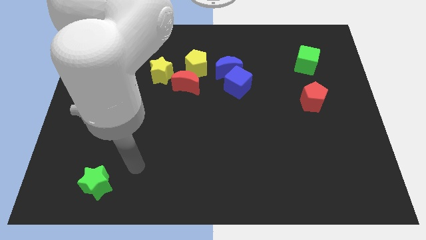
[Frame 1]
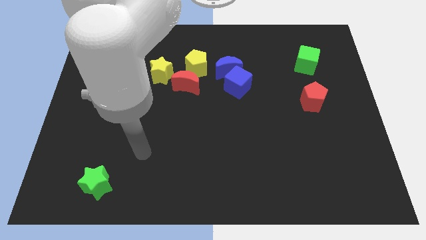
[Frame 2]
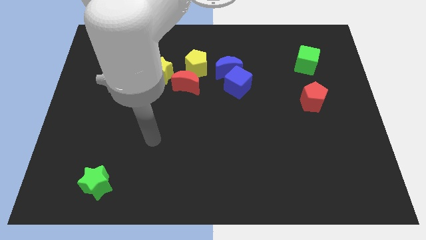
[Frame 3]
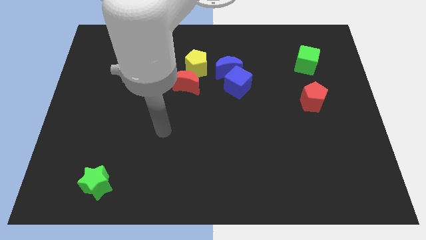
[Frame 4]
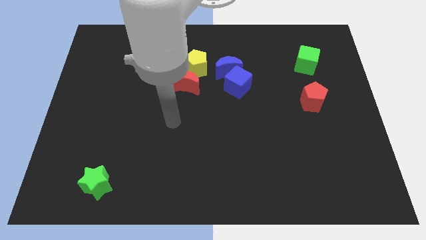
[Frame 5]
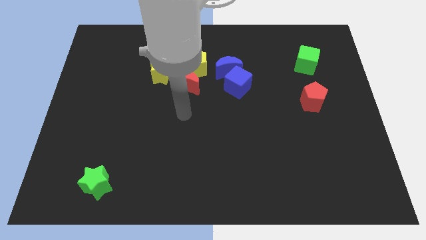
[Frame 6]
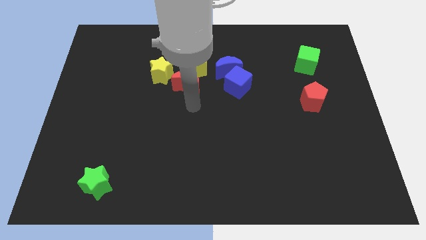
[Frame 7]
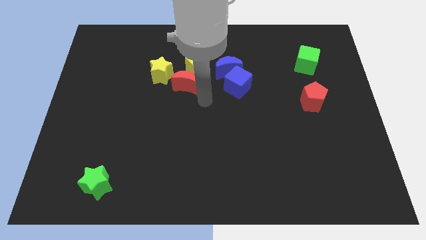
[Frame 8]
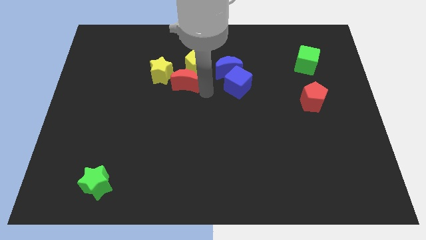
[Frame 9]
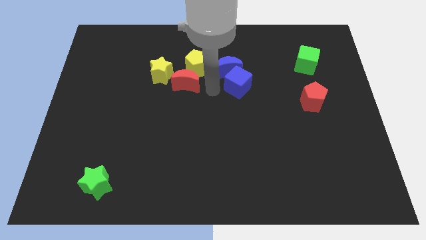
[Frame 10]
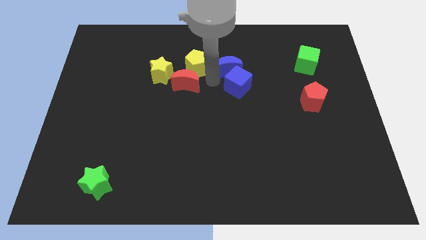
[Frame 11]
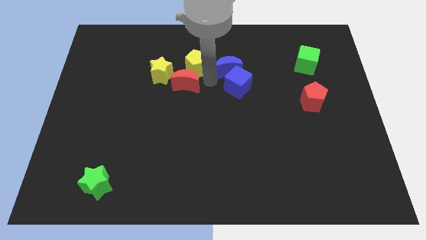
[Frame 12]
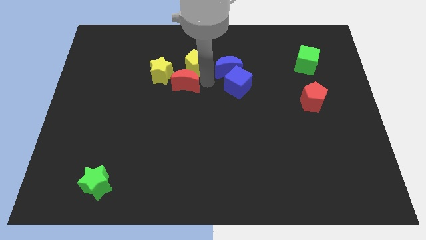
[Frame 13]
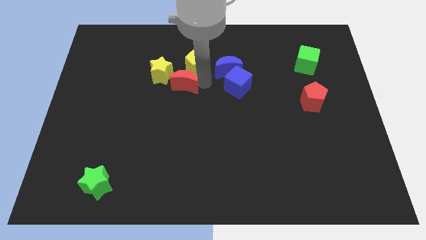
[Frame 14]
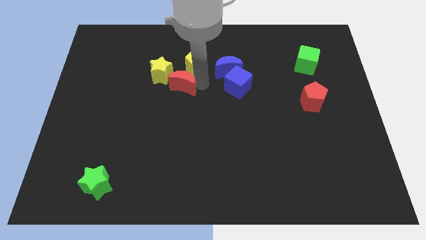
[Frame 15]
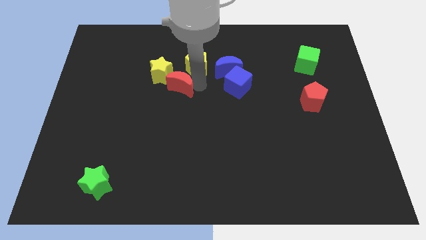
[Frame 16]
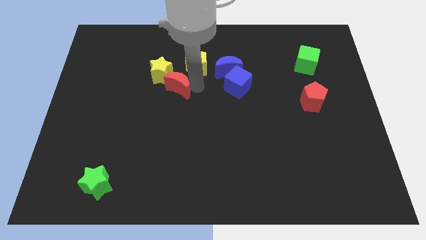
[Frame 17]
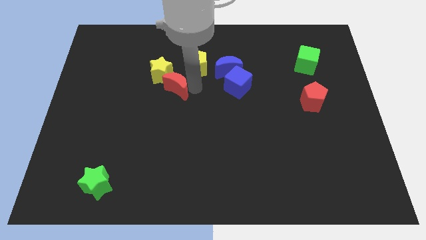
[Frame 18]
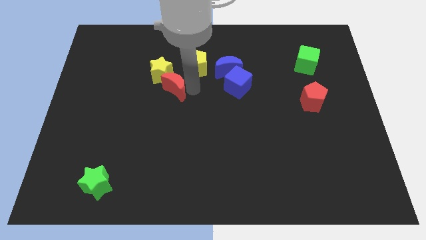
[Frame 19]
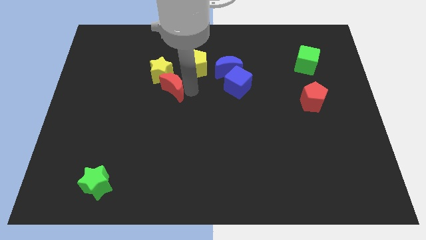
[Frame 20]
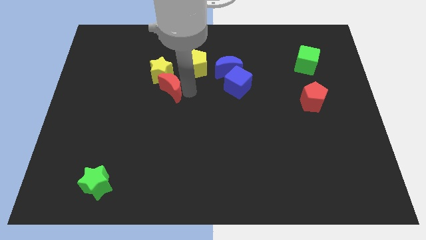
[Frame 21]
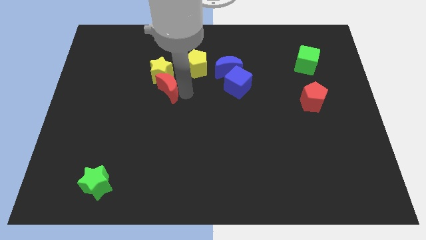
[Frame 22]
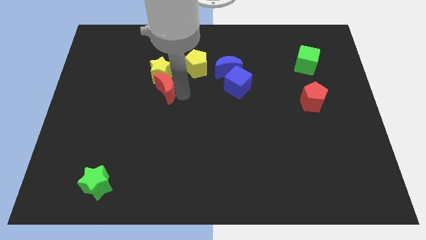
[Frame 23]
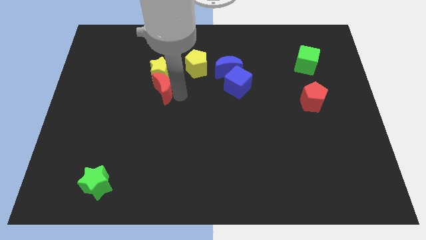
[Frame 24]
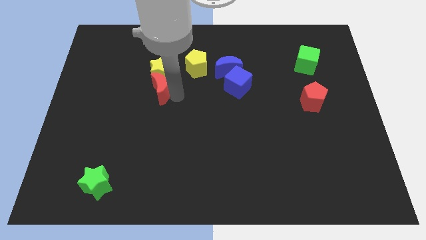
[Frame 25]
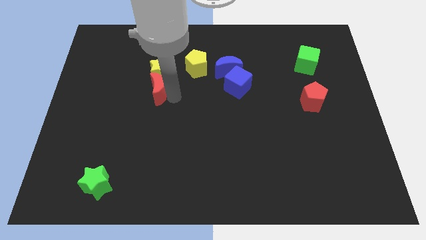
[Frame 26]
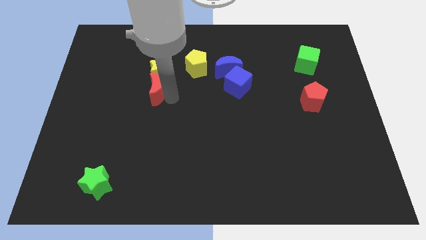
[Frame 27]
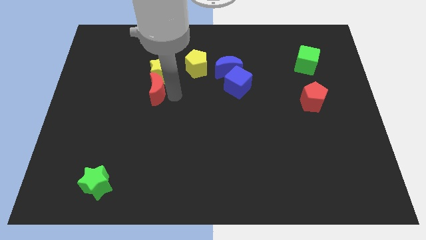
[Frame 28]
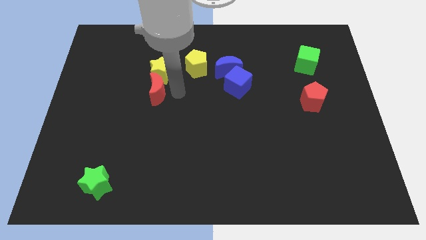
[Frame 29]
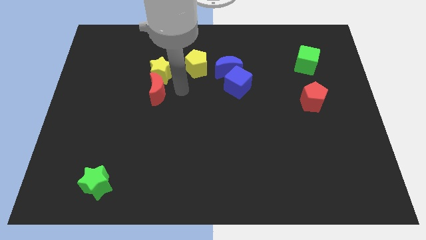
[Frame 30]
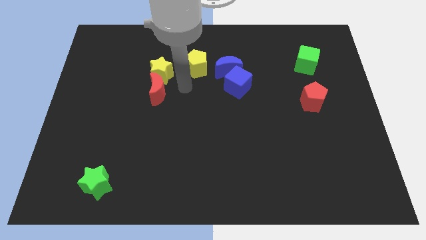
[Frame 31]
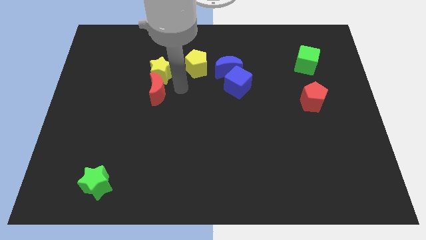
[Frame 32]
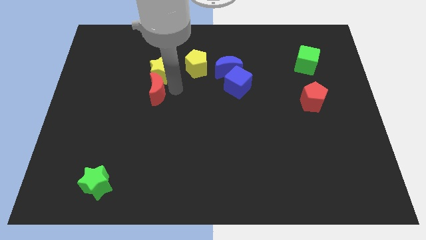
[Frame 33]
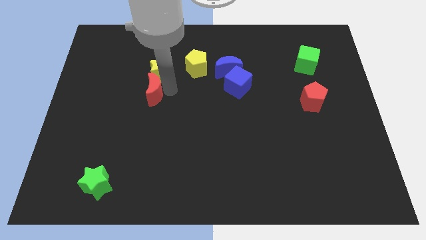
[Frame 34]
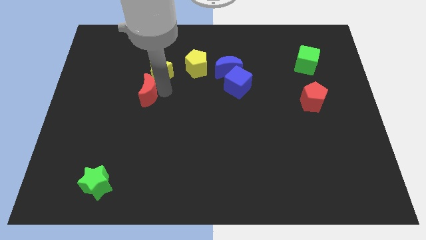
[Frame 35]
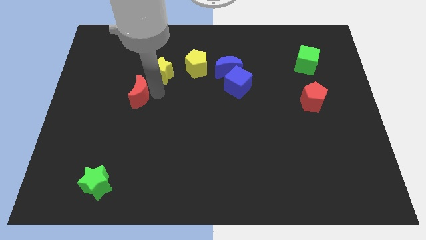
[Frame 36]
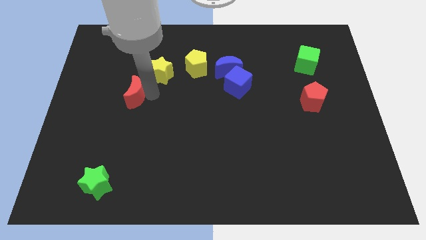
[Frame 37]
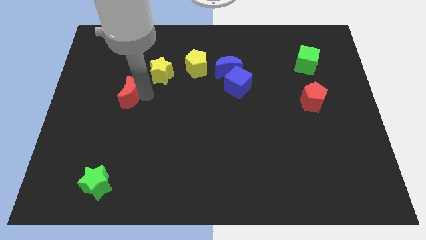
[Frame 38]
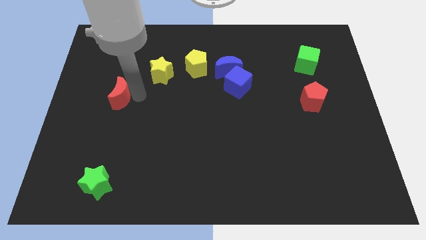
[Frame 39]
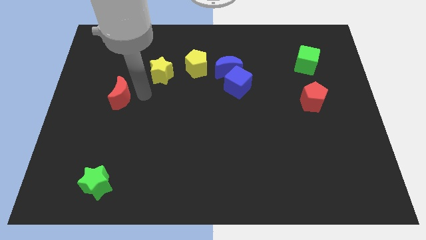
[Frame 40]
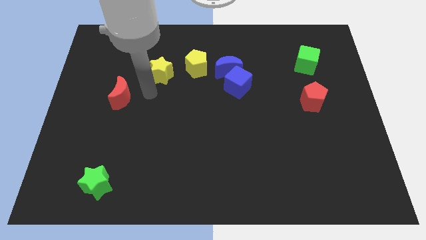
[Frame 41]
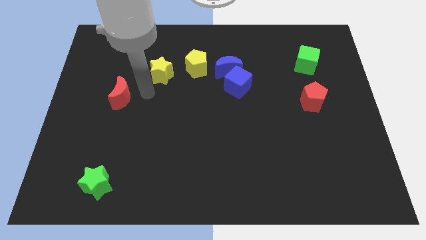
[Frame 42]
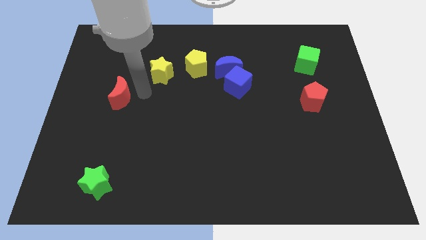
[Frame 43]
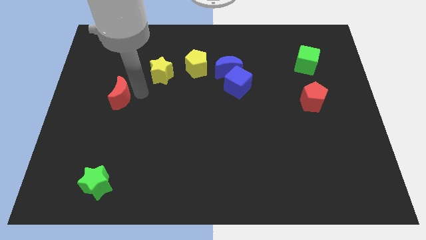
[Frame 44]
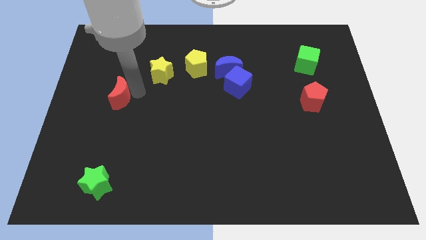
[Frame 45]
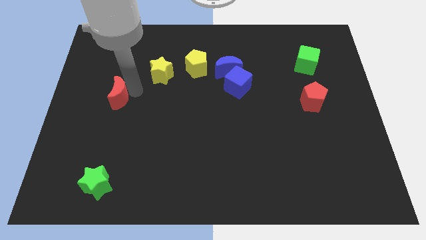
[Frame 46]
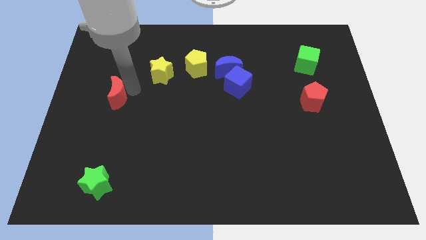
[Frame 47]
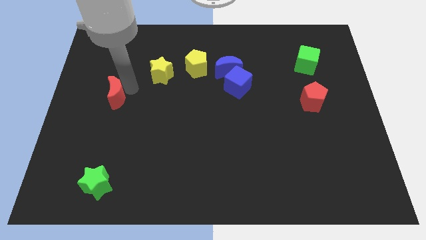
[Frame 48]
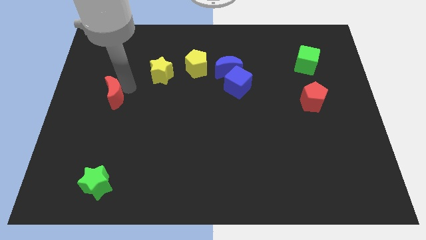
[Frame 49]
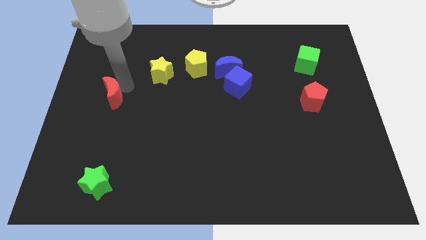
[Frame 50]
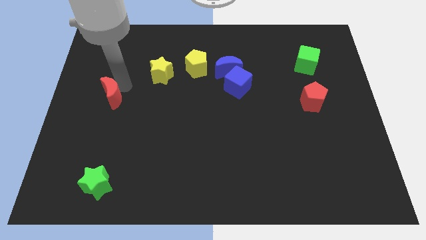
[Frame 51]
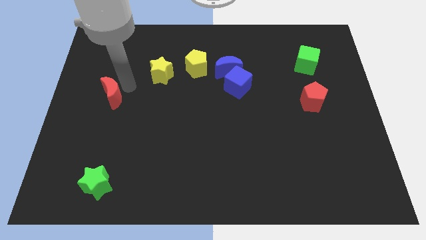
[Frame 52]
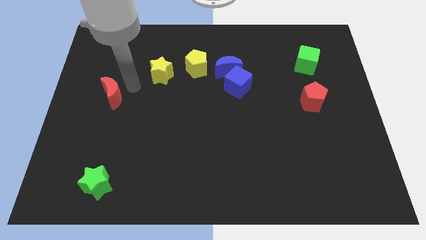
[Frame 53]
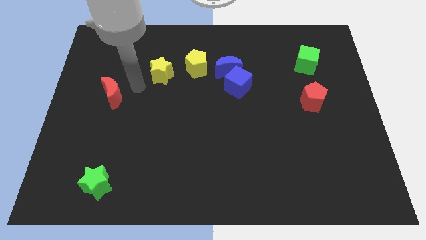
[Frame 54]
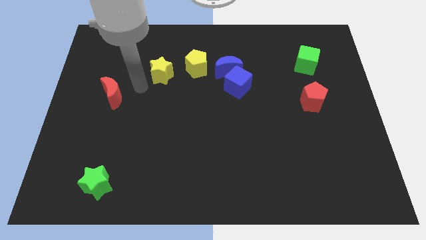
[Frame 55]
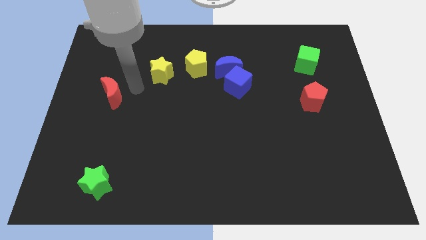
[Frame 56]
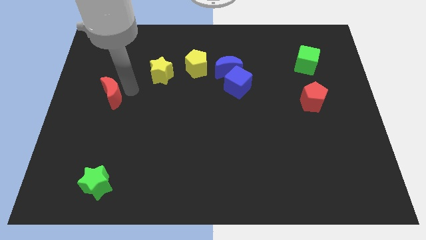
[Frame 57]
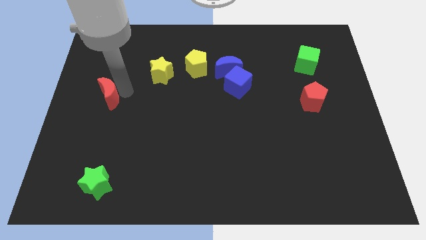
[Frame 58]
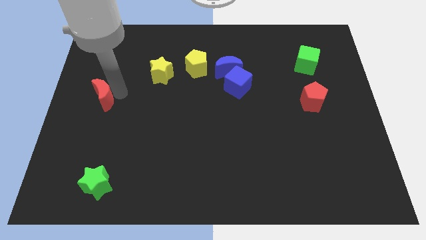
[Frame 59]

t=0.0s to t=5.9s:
put the red moon to the center left
